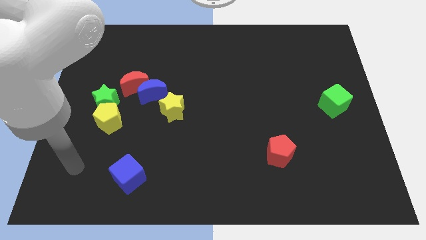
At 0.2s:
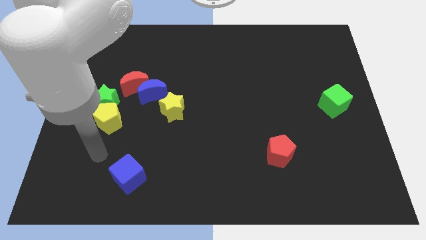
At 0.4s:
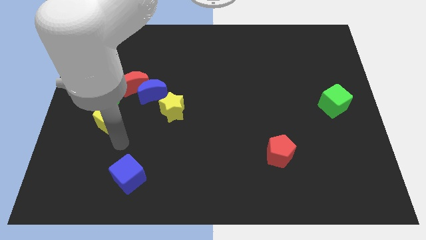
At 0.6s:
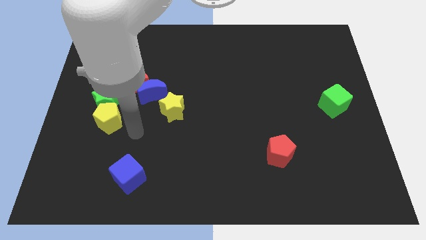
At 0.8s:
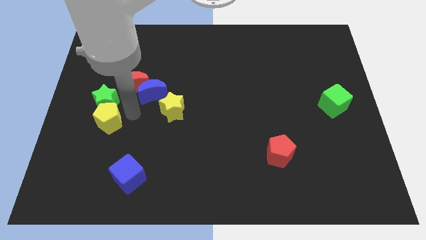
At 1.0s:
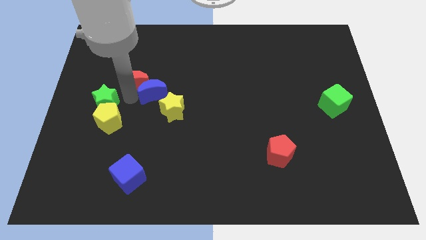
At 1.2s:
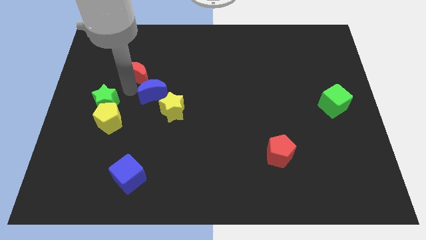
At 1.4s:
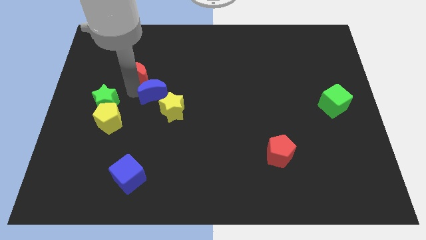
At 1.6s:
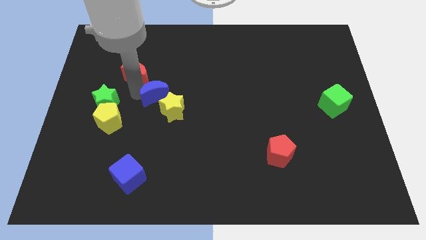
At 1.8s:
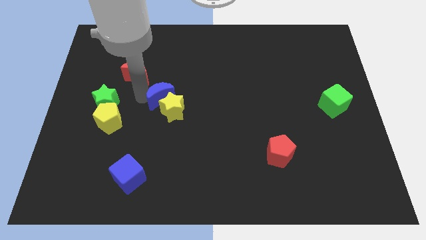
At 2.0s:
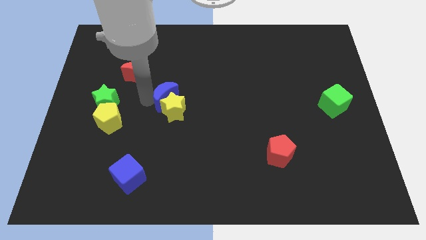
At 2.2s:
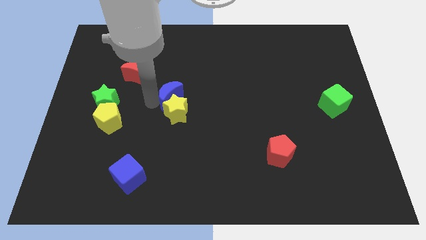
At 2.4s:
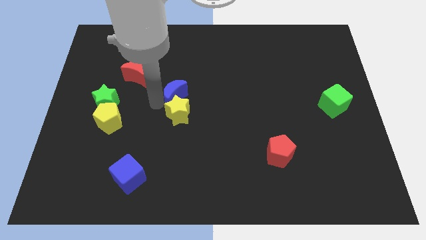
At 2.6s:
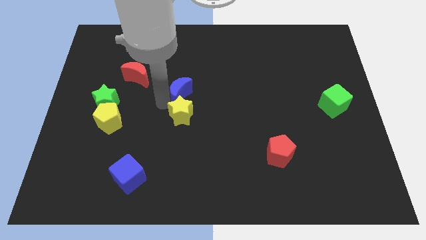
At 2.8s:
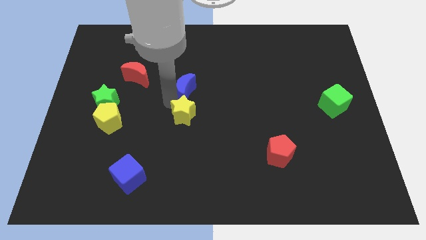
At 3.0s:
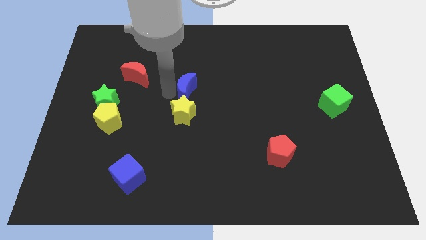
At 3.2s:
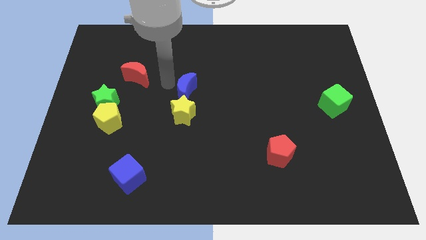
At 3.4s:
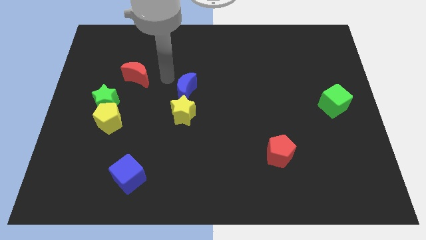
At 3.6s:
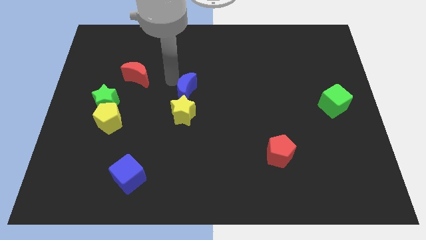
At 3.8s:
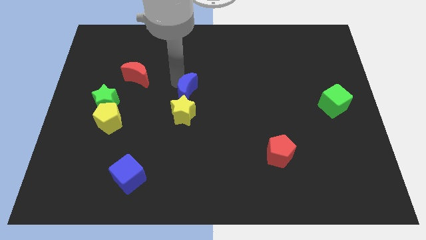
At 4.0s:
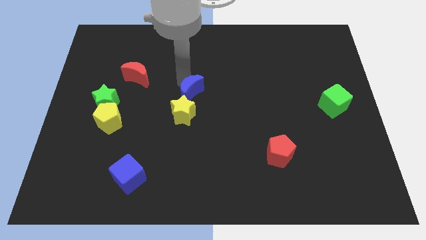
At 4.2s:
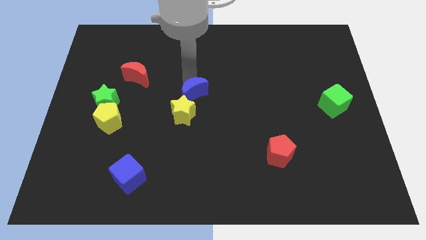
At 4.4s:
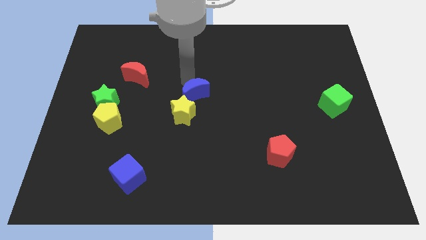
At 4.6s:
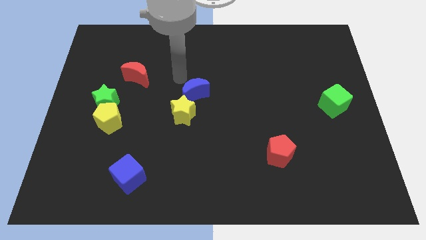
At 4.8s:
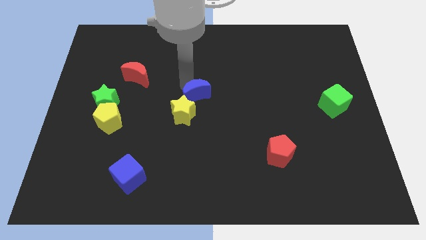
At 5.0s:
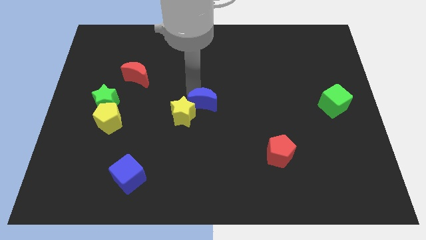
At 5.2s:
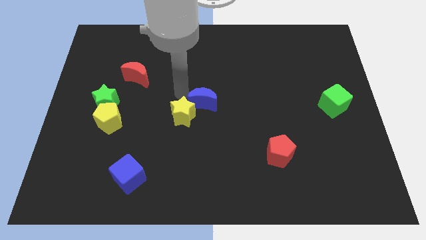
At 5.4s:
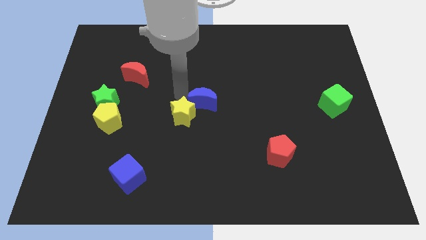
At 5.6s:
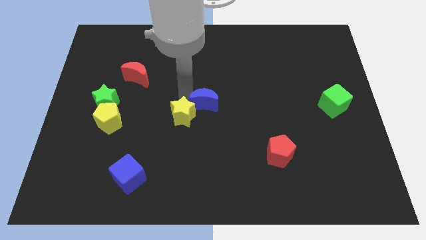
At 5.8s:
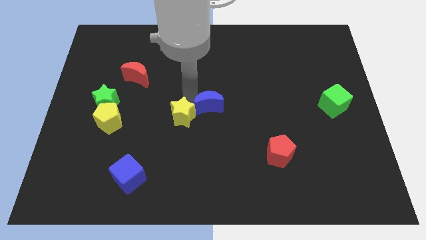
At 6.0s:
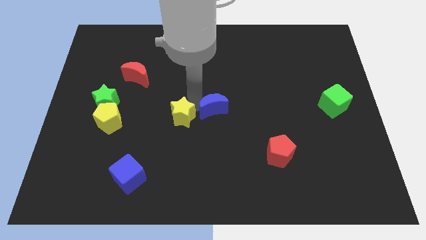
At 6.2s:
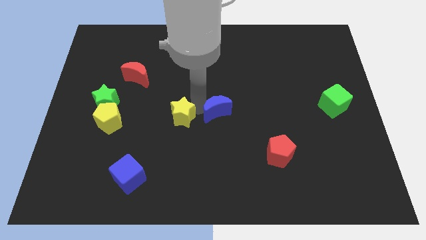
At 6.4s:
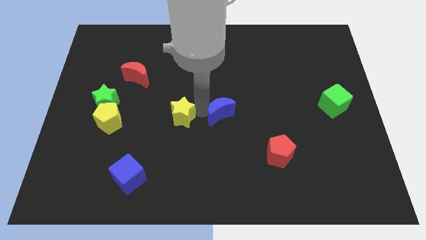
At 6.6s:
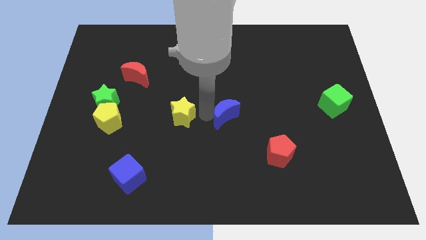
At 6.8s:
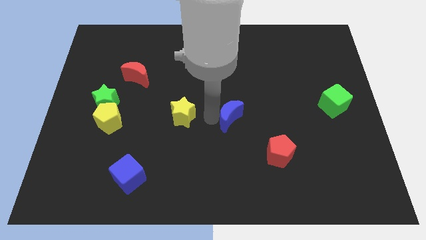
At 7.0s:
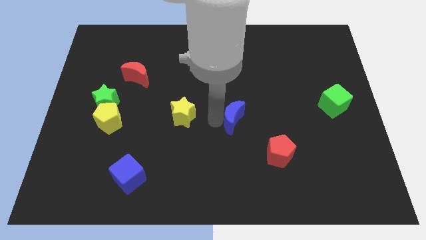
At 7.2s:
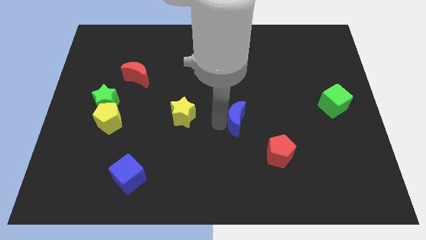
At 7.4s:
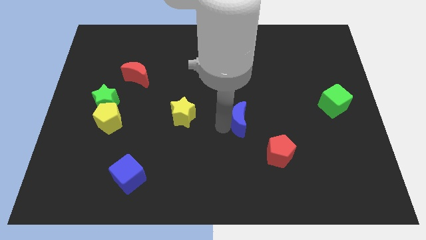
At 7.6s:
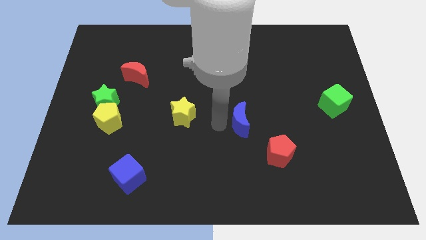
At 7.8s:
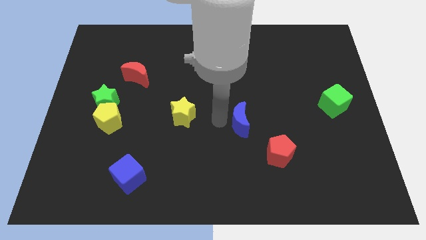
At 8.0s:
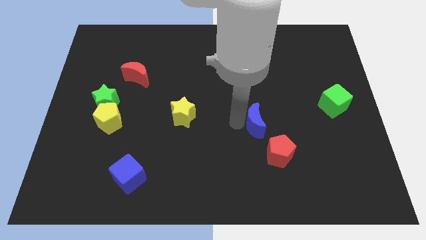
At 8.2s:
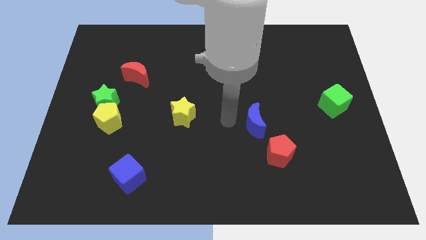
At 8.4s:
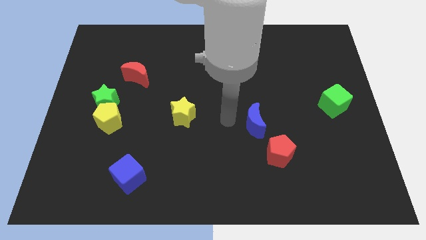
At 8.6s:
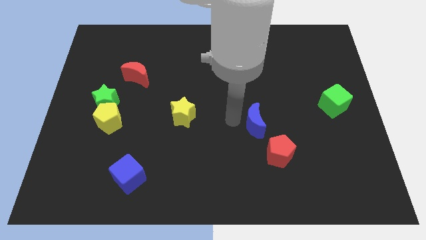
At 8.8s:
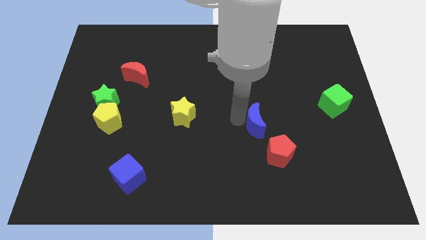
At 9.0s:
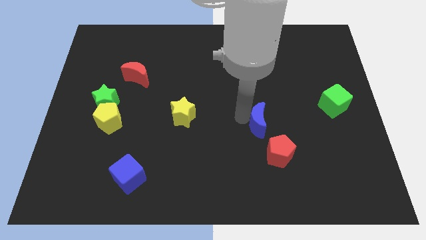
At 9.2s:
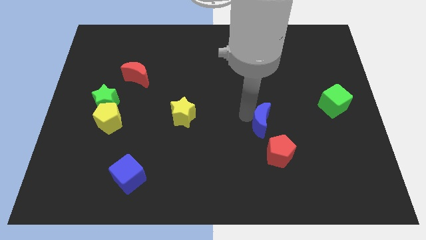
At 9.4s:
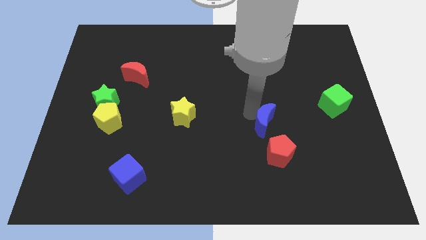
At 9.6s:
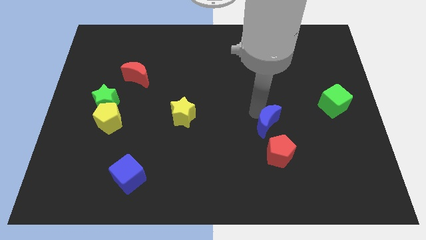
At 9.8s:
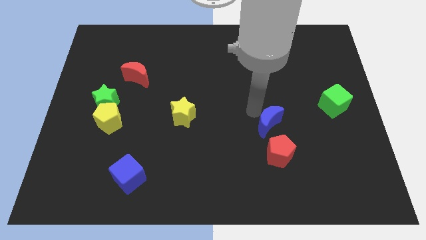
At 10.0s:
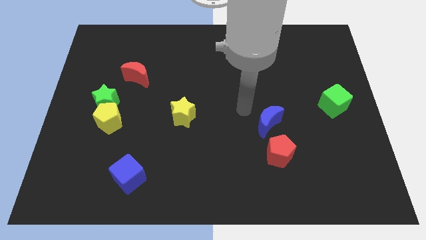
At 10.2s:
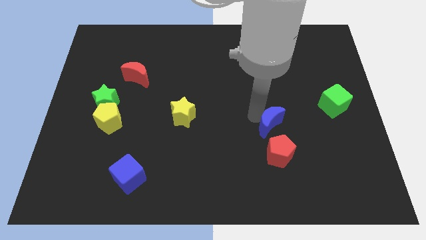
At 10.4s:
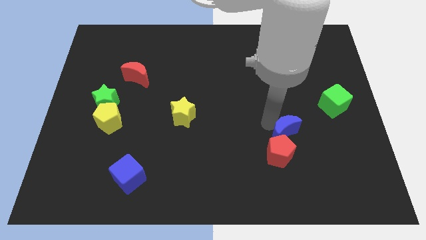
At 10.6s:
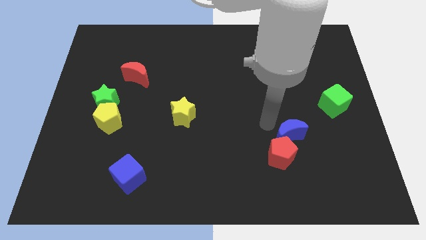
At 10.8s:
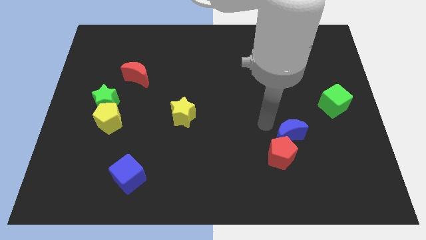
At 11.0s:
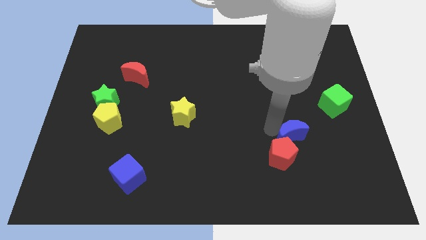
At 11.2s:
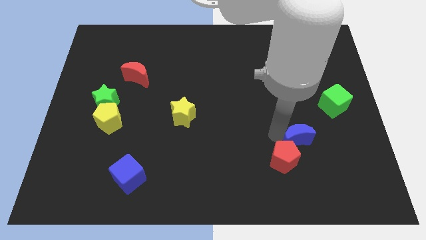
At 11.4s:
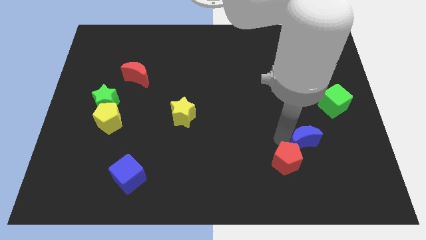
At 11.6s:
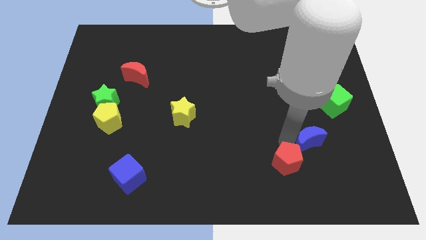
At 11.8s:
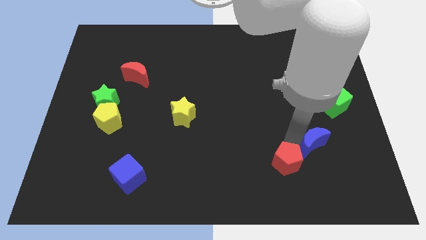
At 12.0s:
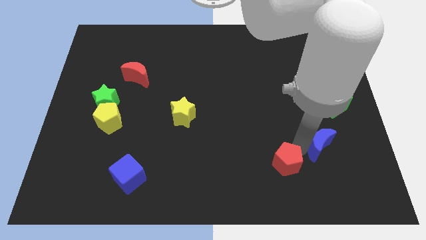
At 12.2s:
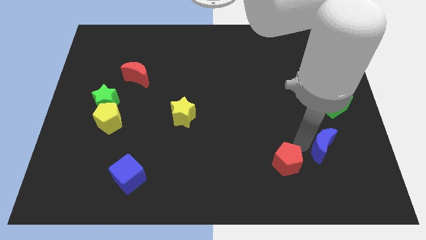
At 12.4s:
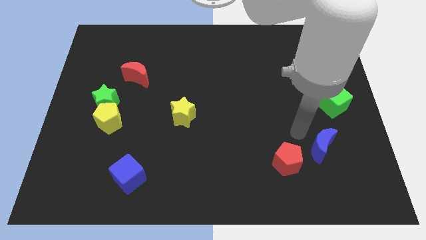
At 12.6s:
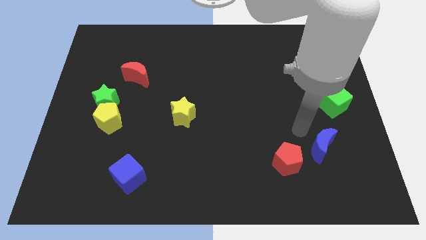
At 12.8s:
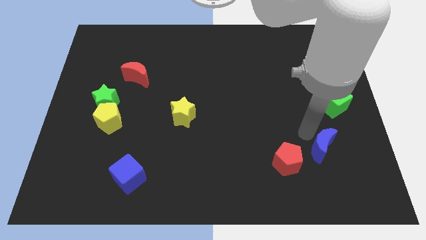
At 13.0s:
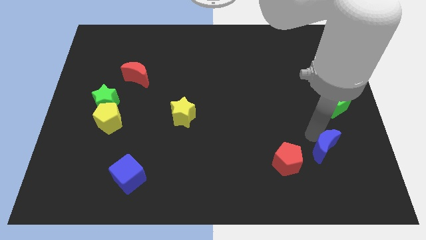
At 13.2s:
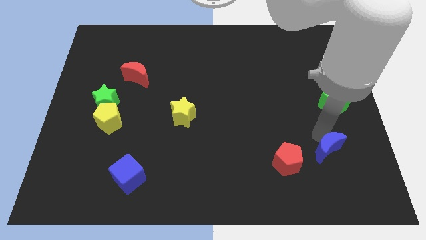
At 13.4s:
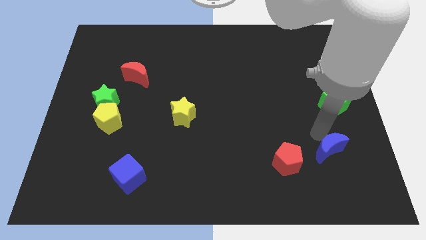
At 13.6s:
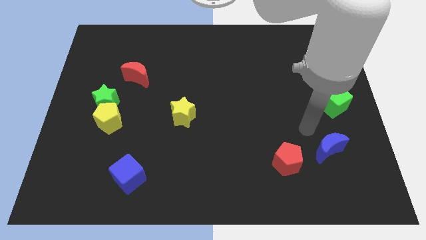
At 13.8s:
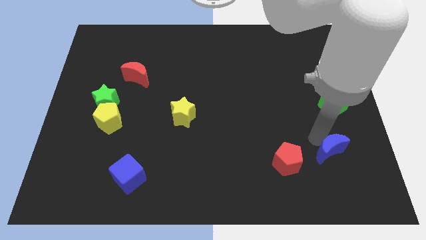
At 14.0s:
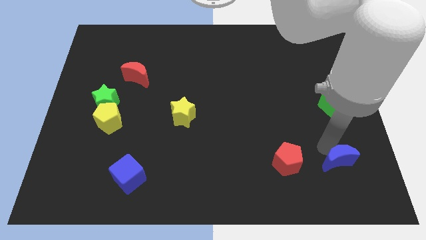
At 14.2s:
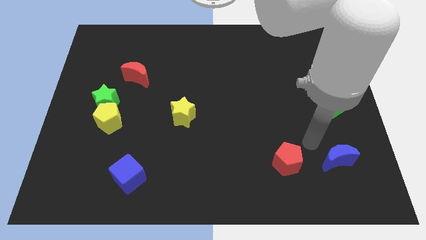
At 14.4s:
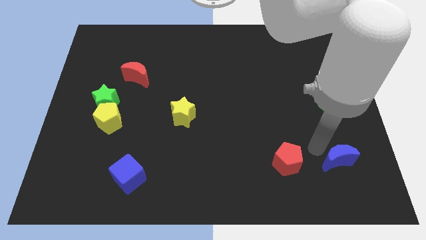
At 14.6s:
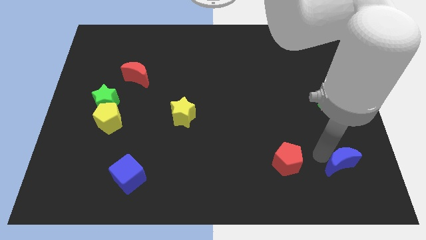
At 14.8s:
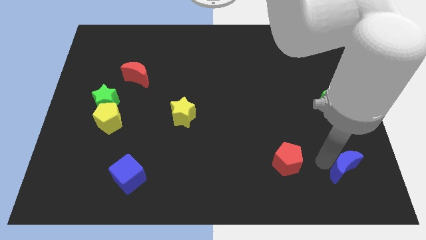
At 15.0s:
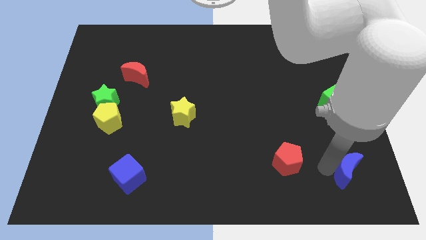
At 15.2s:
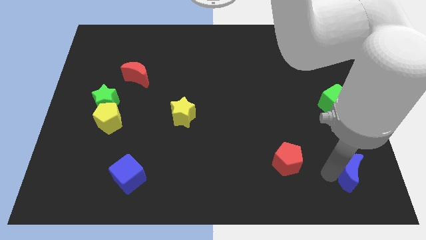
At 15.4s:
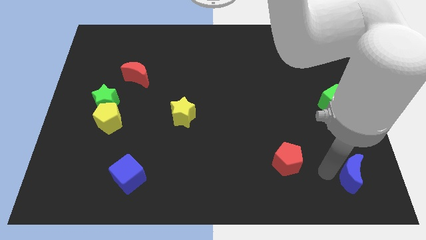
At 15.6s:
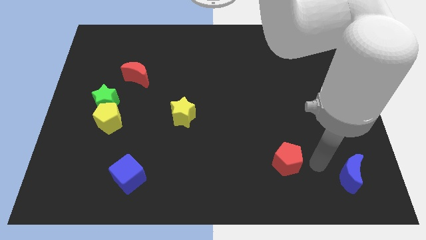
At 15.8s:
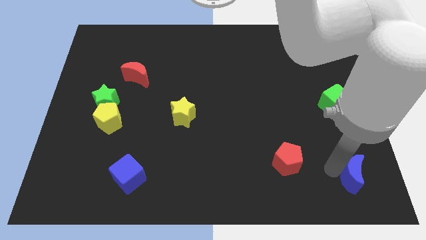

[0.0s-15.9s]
slide the blue moon to the lower right corner
